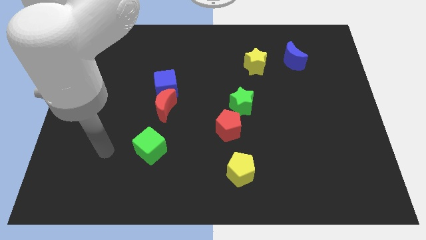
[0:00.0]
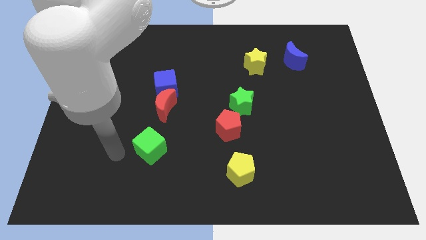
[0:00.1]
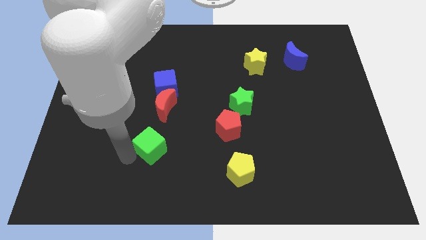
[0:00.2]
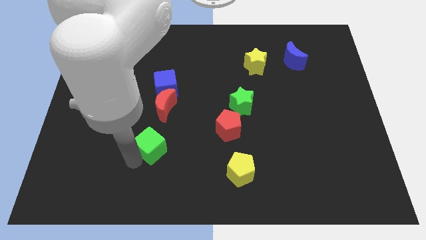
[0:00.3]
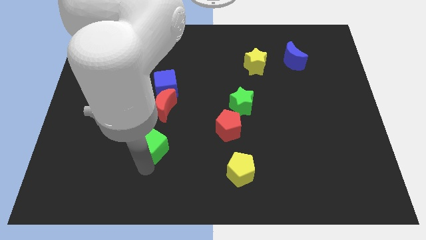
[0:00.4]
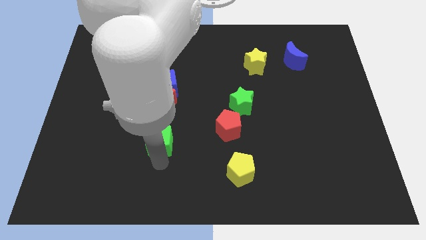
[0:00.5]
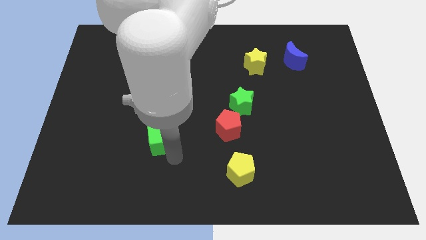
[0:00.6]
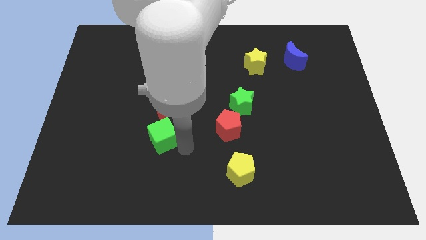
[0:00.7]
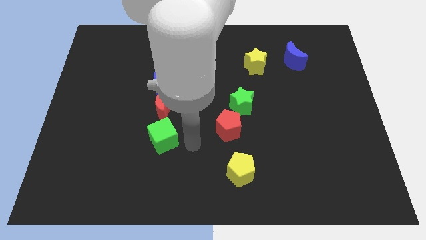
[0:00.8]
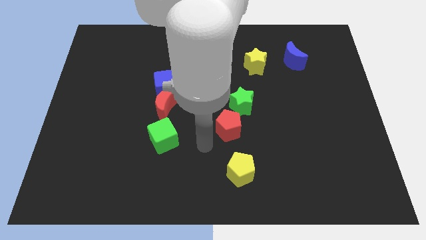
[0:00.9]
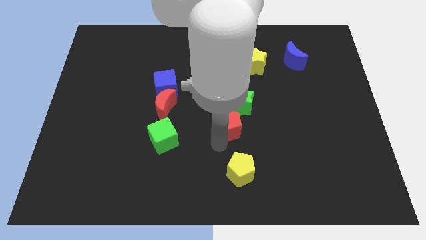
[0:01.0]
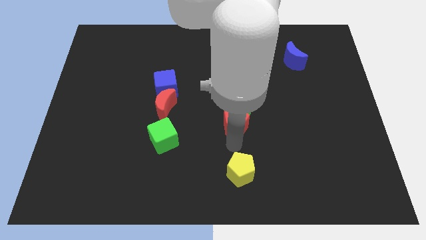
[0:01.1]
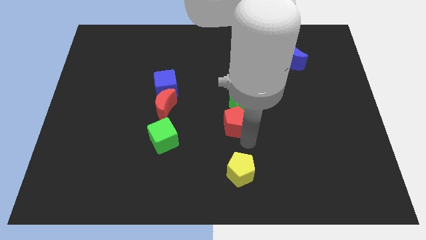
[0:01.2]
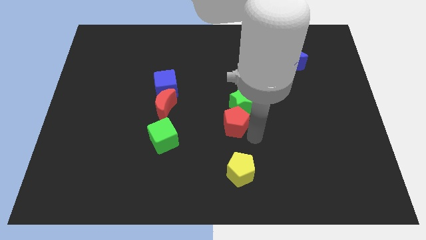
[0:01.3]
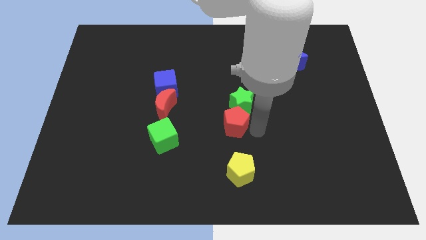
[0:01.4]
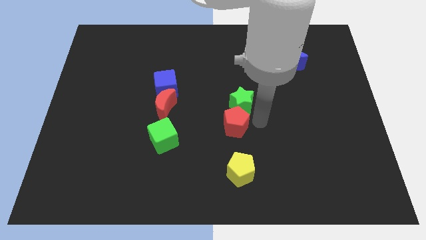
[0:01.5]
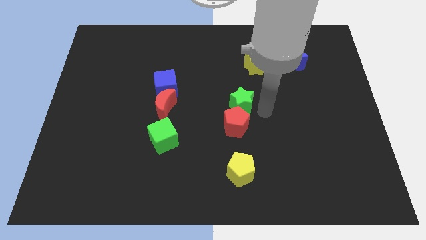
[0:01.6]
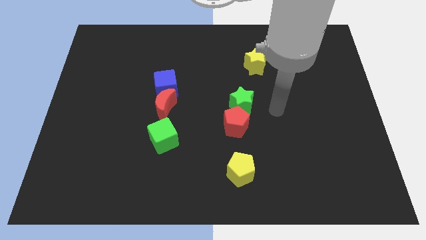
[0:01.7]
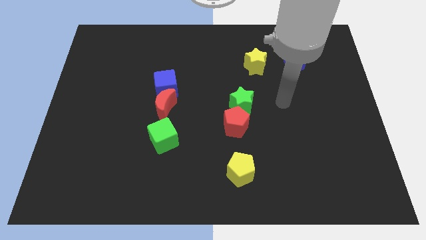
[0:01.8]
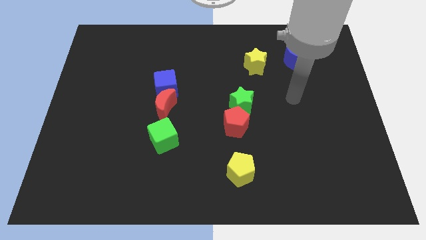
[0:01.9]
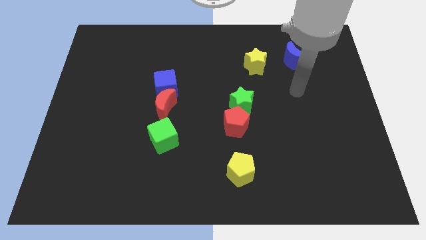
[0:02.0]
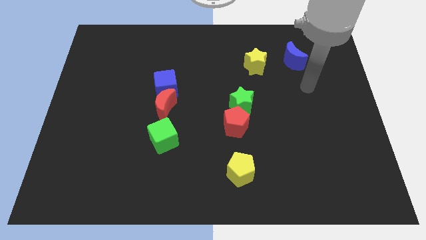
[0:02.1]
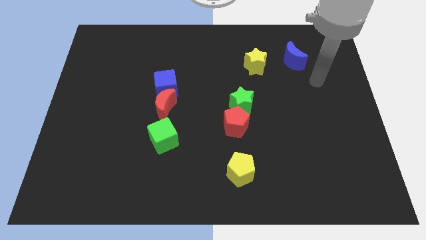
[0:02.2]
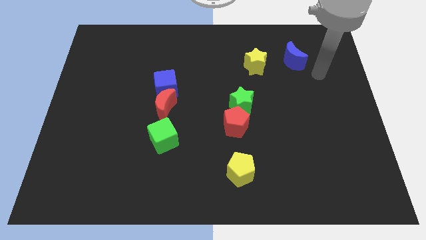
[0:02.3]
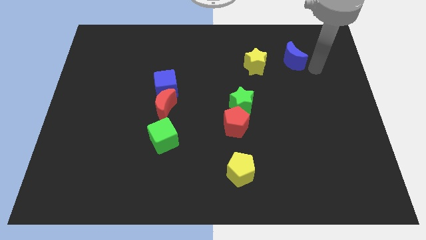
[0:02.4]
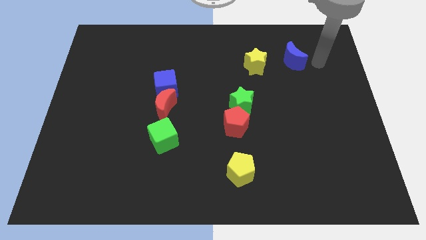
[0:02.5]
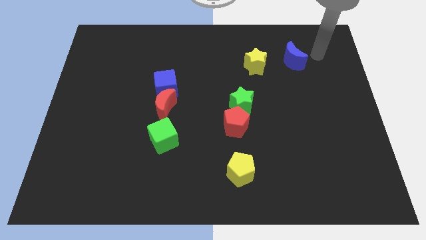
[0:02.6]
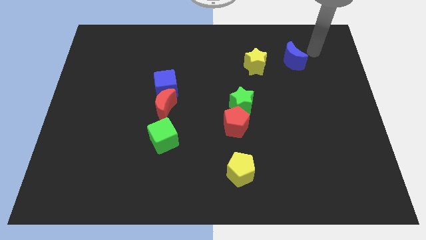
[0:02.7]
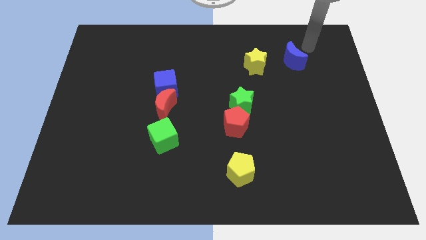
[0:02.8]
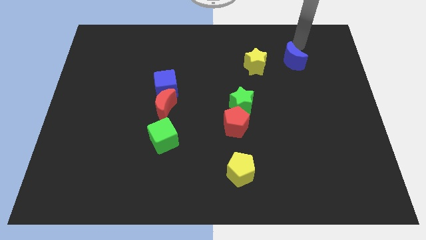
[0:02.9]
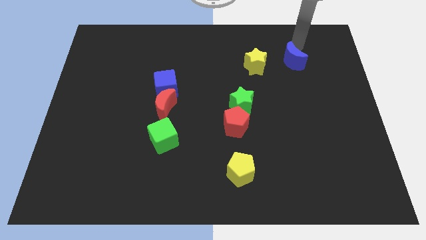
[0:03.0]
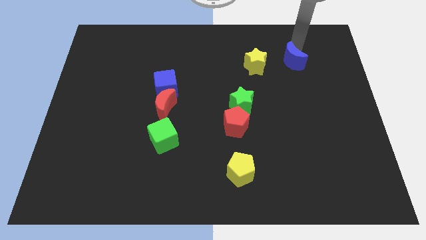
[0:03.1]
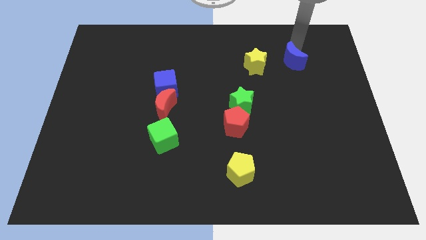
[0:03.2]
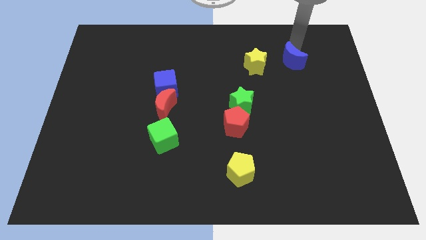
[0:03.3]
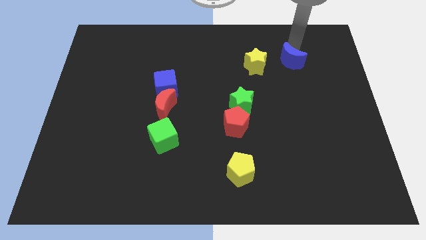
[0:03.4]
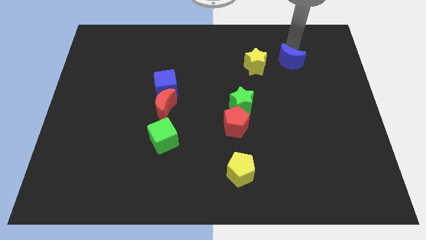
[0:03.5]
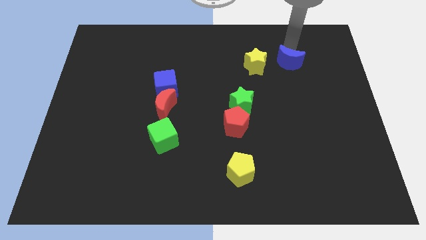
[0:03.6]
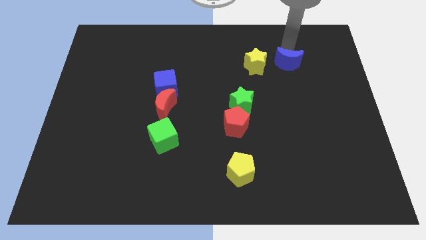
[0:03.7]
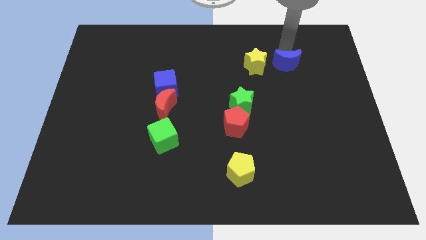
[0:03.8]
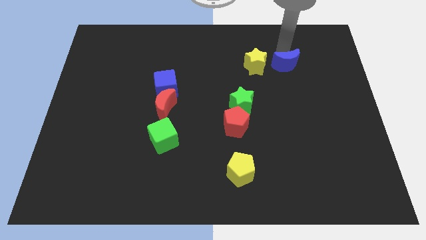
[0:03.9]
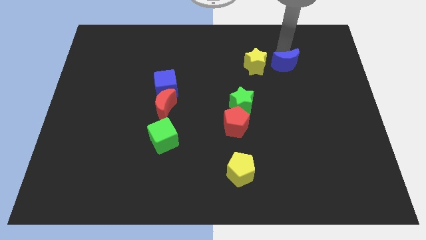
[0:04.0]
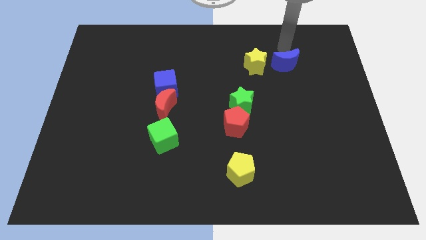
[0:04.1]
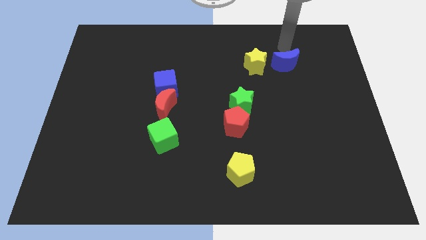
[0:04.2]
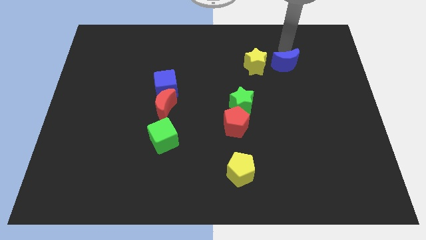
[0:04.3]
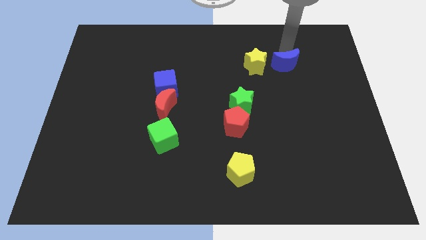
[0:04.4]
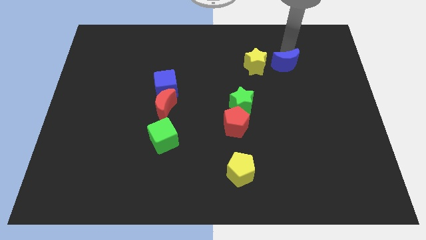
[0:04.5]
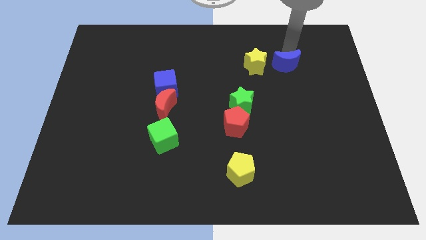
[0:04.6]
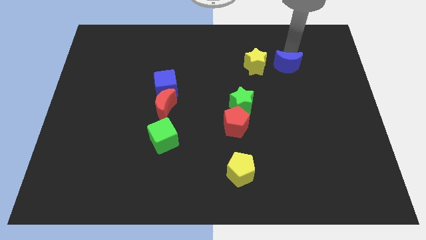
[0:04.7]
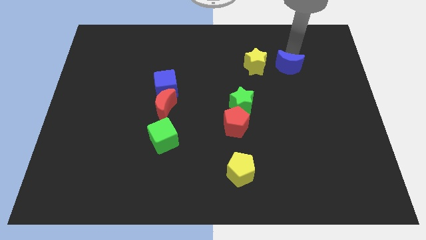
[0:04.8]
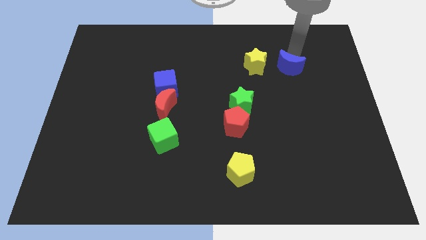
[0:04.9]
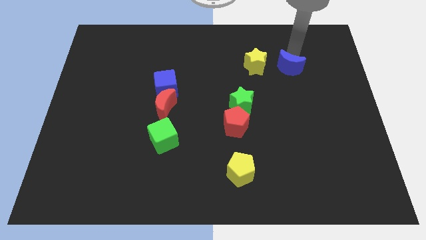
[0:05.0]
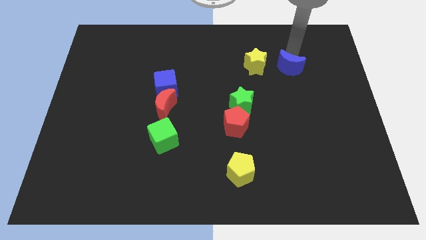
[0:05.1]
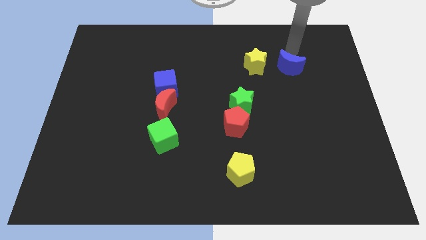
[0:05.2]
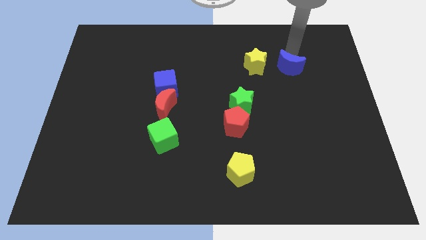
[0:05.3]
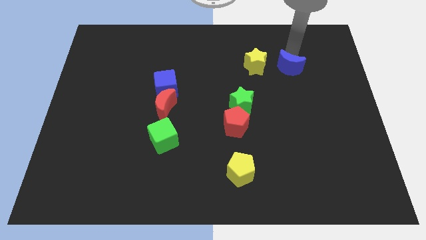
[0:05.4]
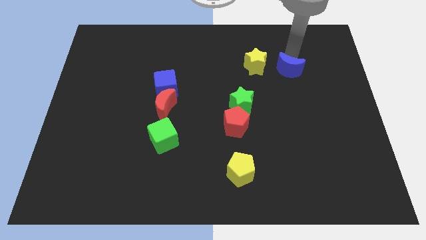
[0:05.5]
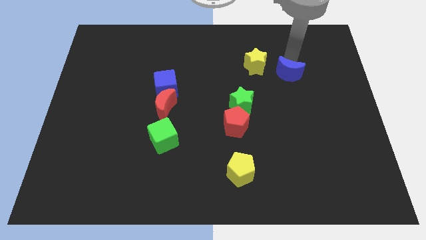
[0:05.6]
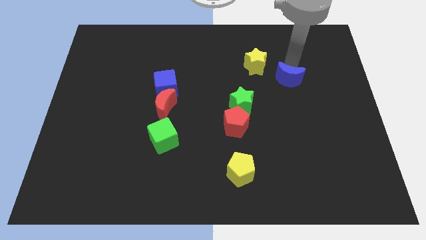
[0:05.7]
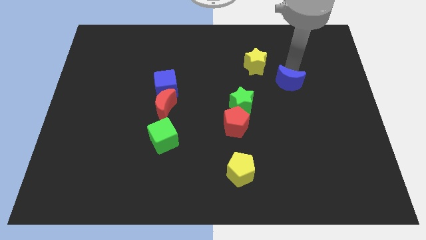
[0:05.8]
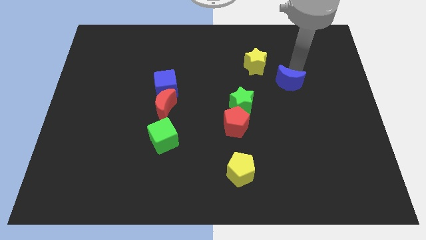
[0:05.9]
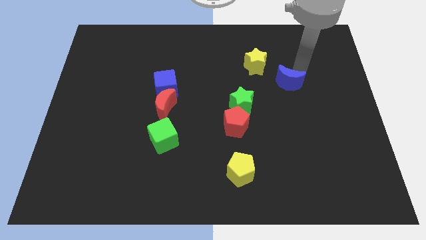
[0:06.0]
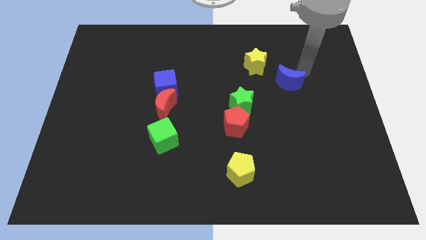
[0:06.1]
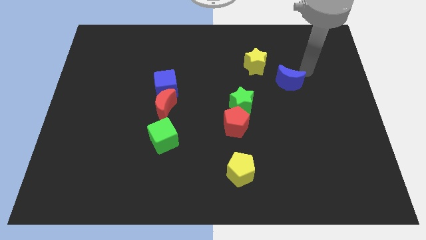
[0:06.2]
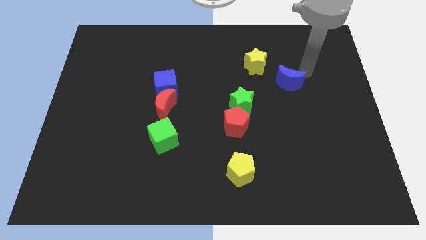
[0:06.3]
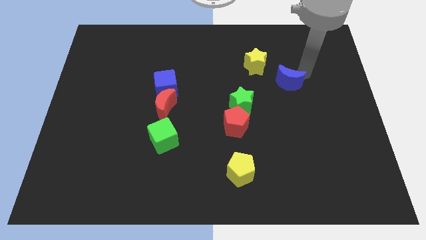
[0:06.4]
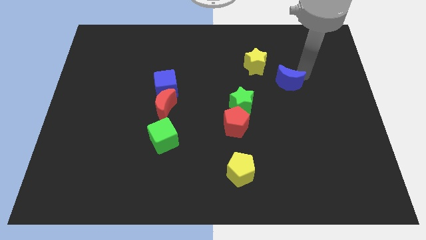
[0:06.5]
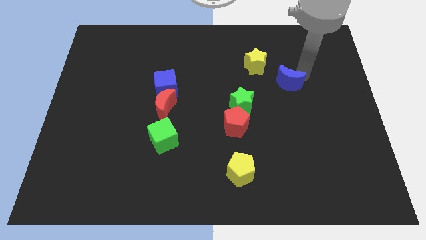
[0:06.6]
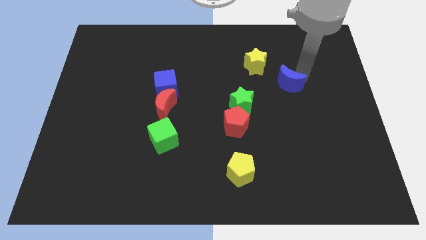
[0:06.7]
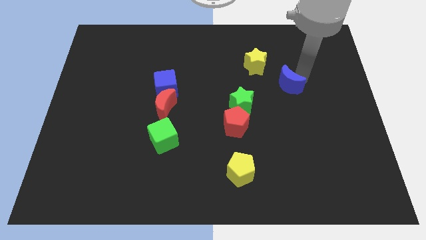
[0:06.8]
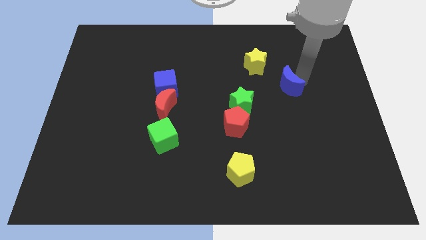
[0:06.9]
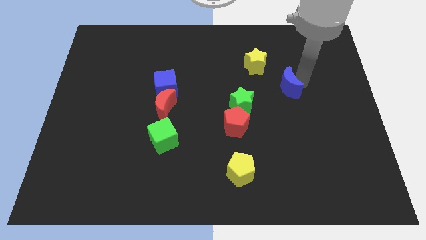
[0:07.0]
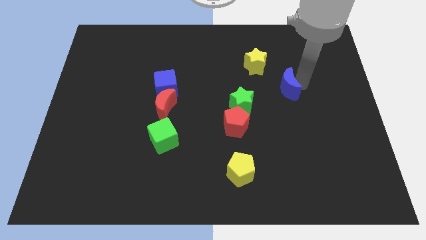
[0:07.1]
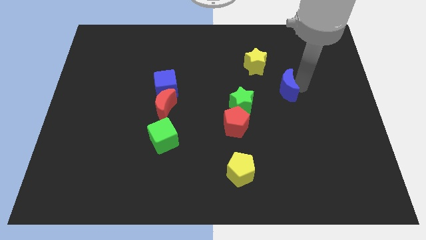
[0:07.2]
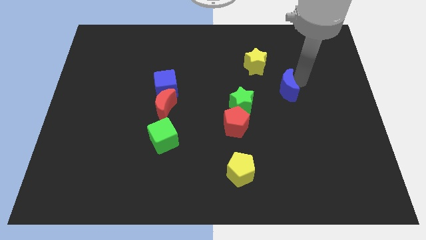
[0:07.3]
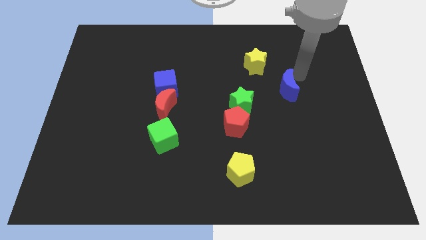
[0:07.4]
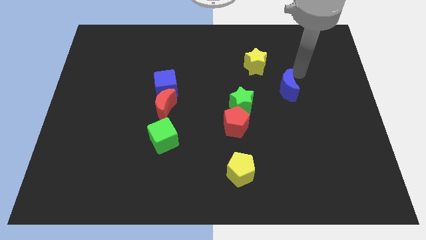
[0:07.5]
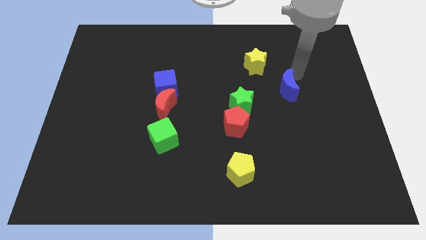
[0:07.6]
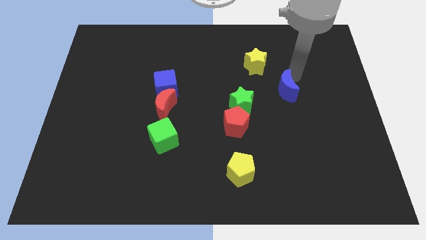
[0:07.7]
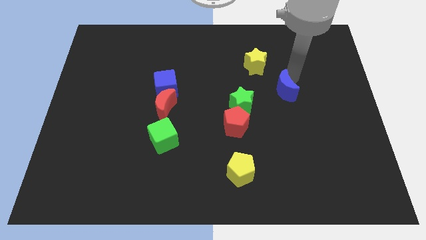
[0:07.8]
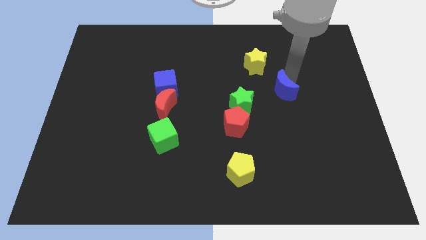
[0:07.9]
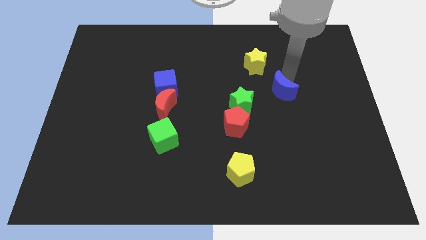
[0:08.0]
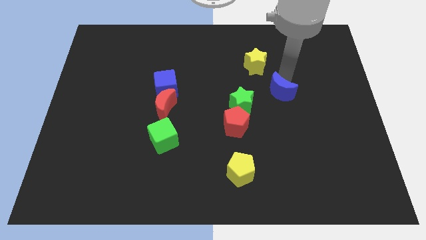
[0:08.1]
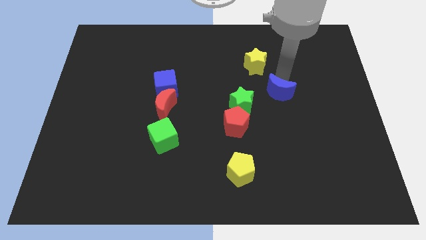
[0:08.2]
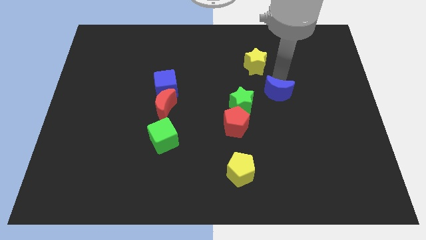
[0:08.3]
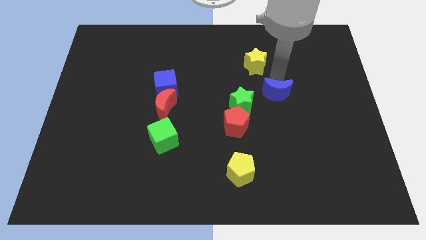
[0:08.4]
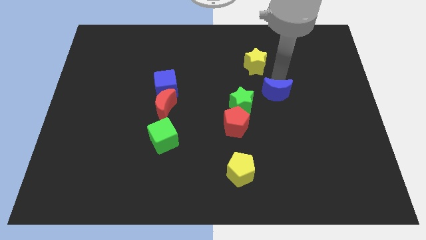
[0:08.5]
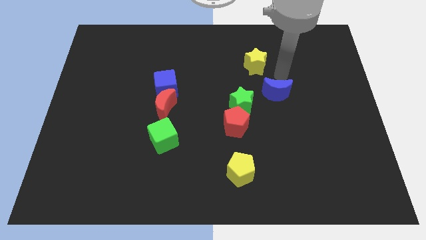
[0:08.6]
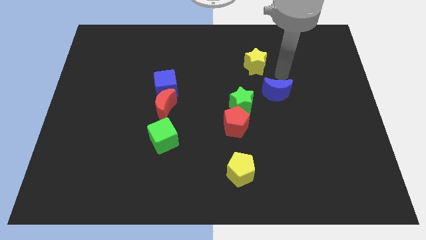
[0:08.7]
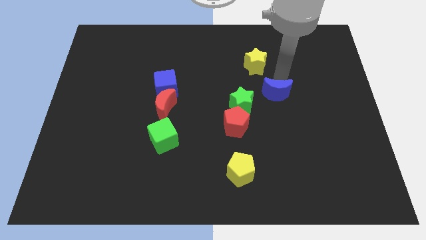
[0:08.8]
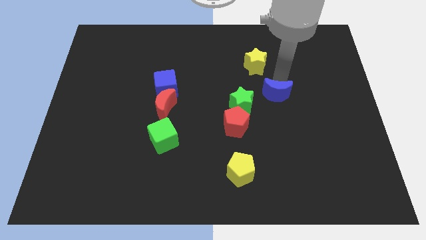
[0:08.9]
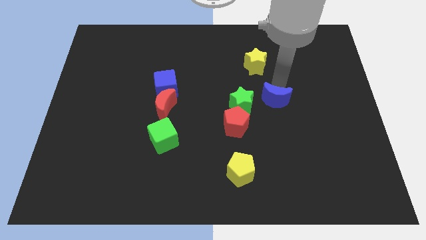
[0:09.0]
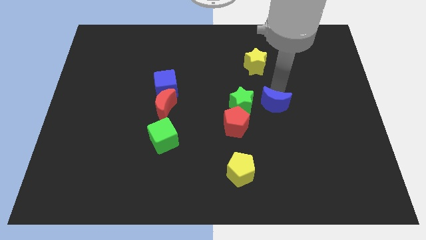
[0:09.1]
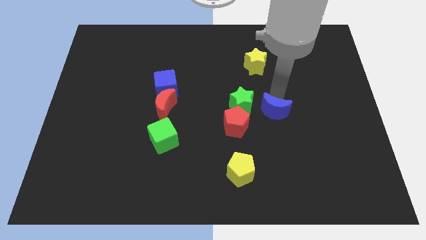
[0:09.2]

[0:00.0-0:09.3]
slide the blue moon to the bottom right of the green star
